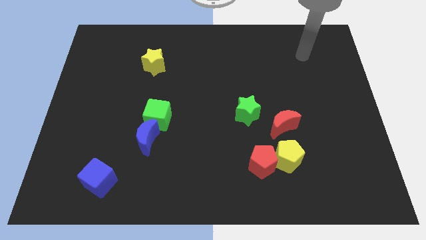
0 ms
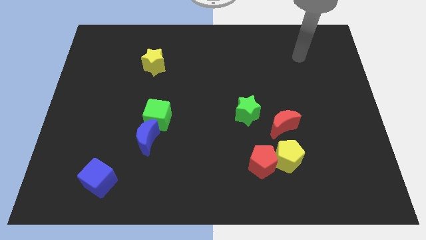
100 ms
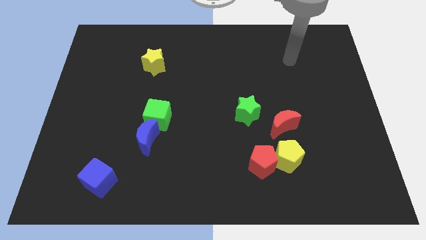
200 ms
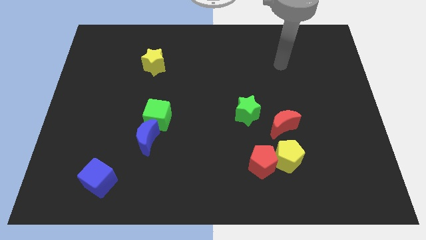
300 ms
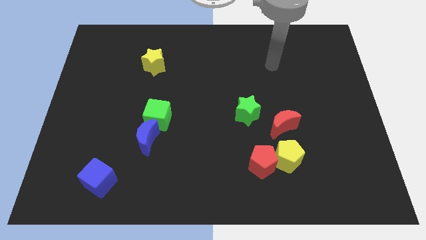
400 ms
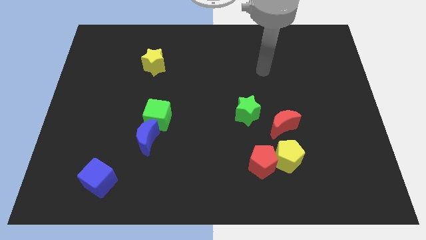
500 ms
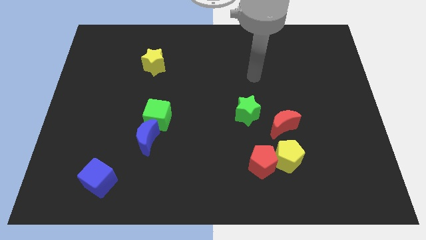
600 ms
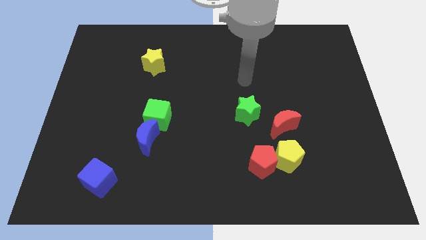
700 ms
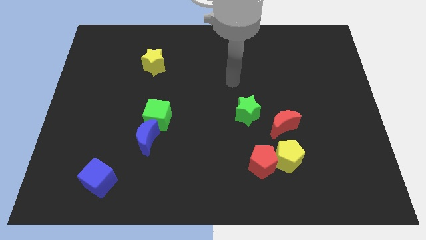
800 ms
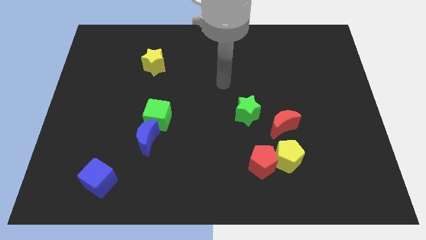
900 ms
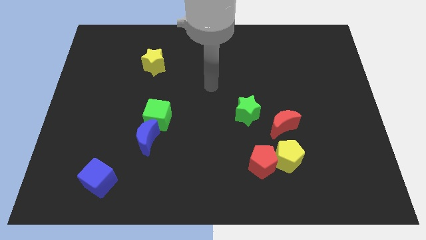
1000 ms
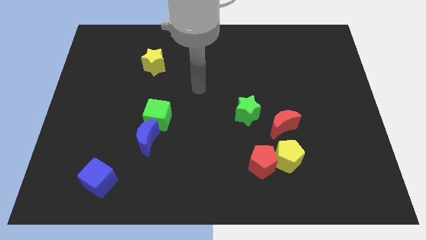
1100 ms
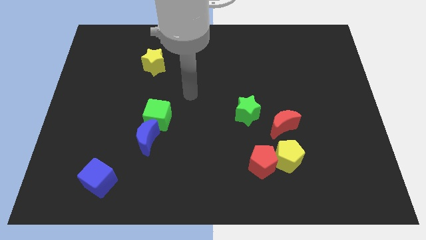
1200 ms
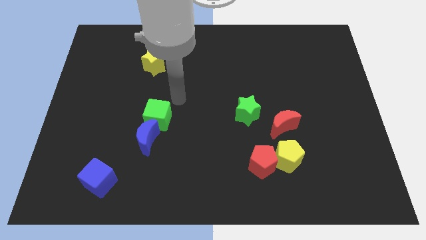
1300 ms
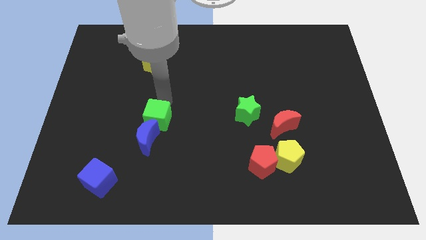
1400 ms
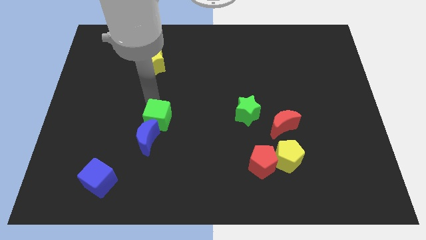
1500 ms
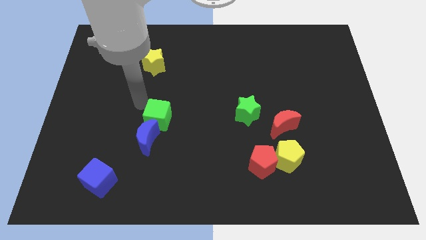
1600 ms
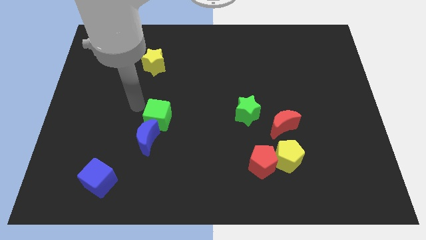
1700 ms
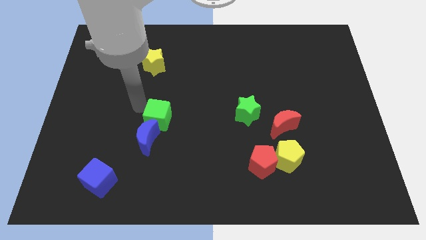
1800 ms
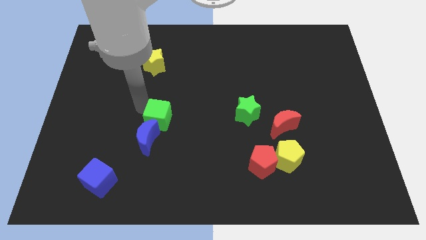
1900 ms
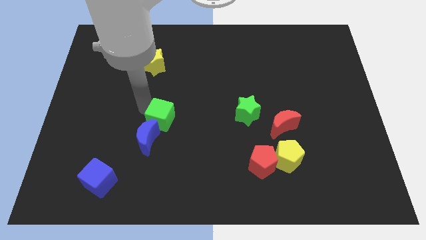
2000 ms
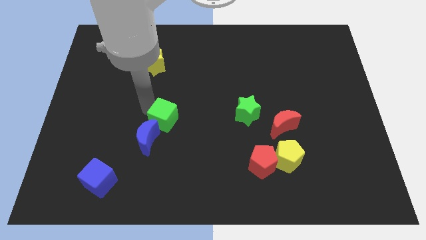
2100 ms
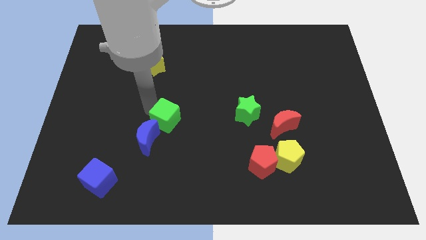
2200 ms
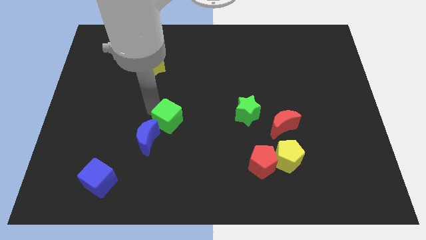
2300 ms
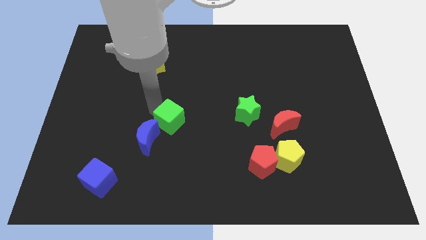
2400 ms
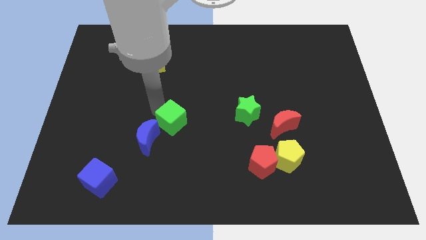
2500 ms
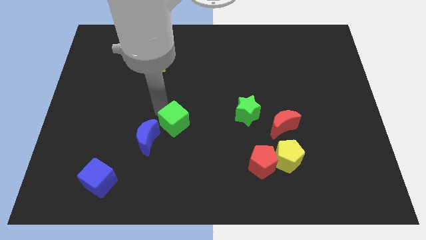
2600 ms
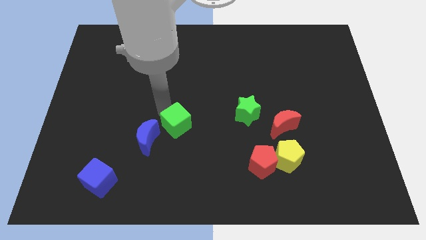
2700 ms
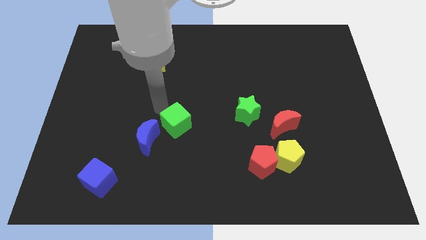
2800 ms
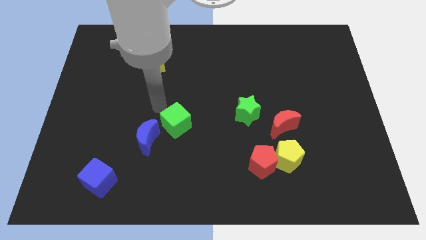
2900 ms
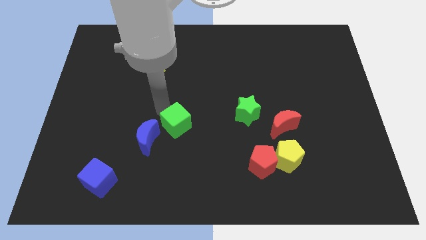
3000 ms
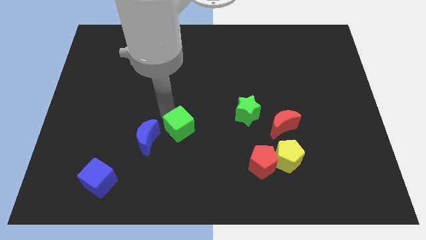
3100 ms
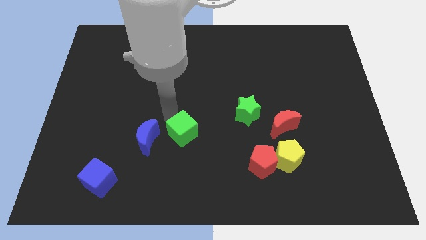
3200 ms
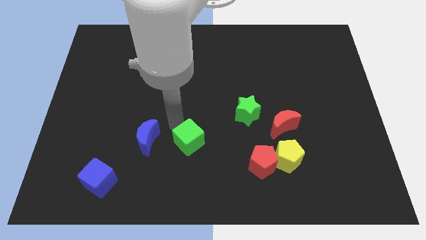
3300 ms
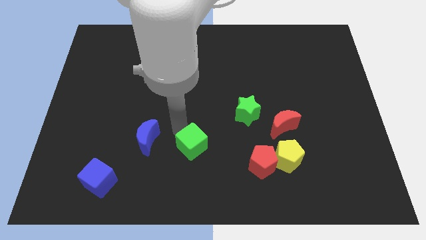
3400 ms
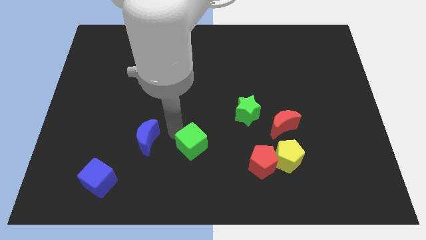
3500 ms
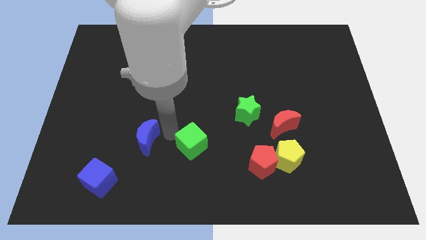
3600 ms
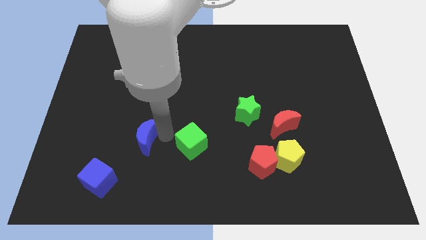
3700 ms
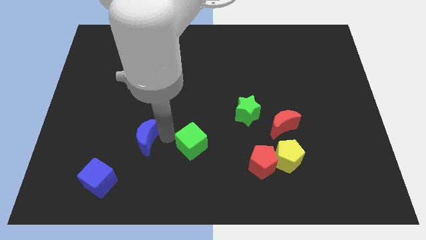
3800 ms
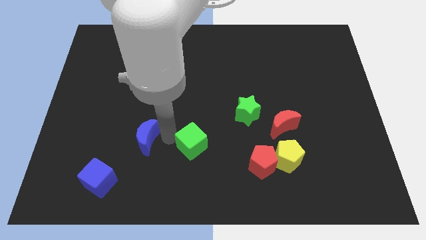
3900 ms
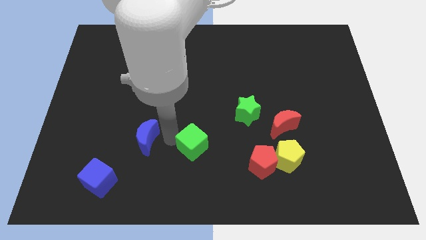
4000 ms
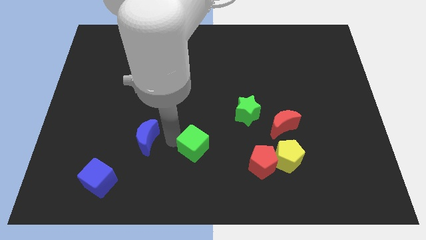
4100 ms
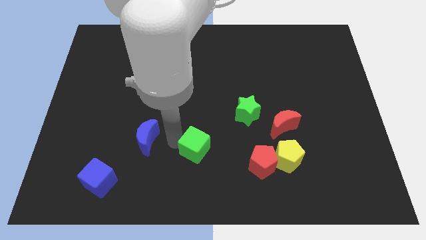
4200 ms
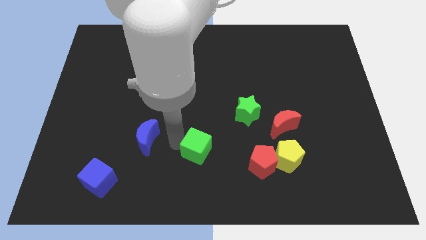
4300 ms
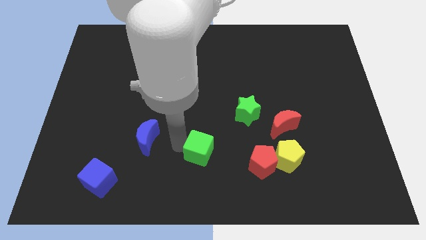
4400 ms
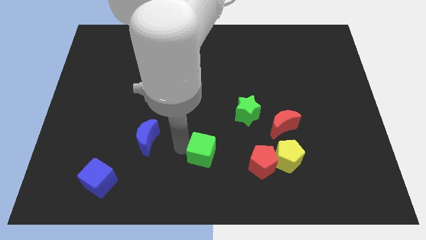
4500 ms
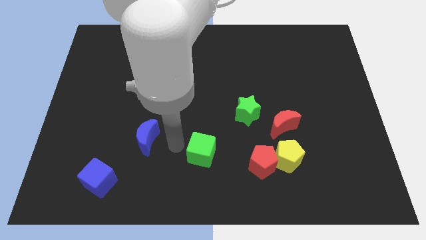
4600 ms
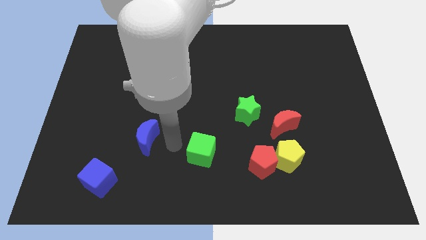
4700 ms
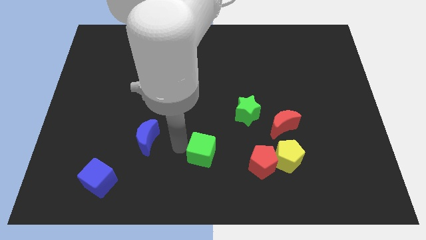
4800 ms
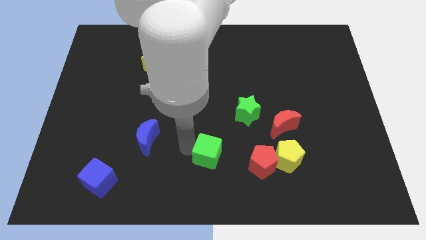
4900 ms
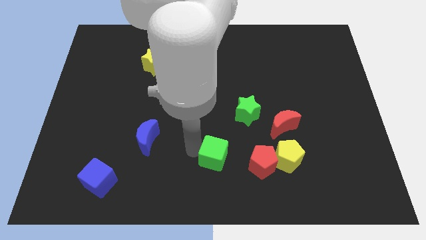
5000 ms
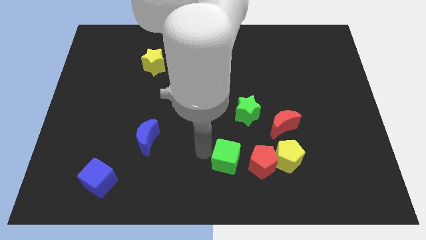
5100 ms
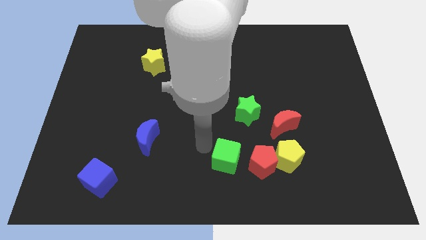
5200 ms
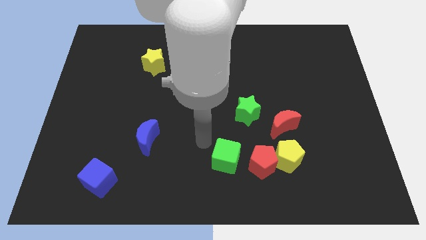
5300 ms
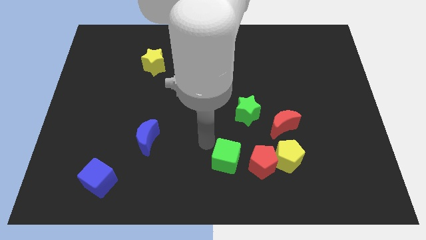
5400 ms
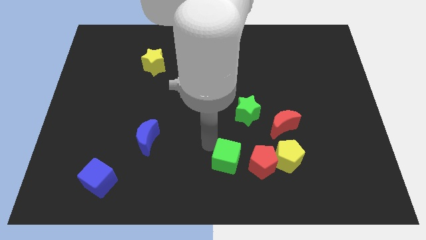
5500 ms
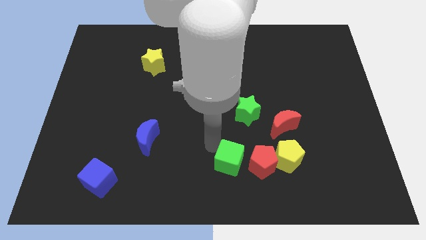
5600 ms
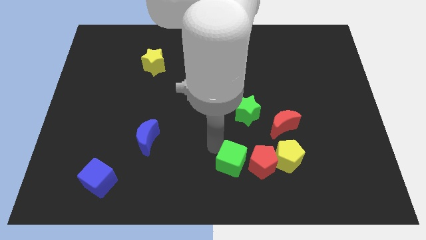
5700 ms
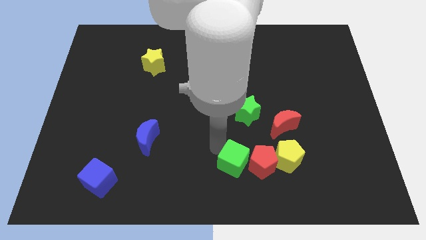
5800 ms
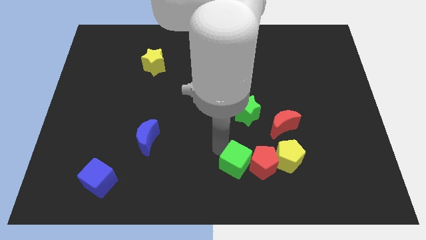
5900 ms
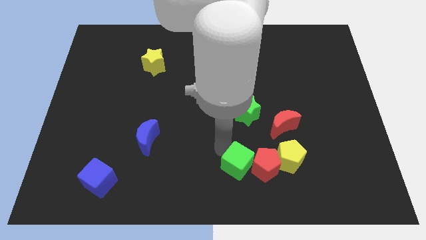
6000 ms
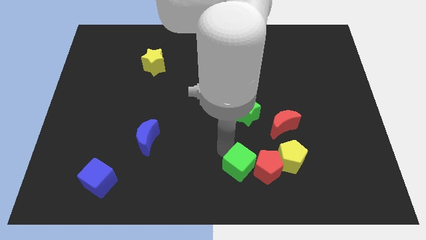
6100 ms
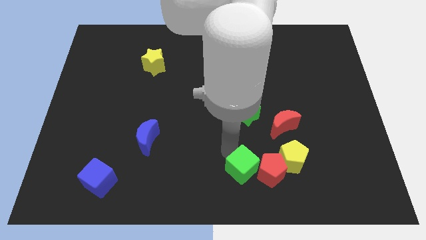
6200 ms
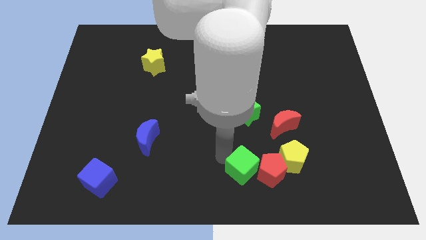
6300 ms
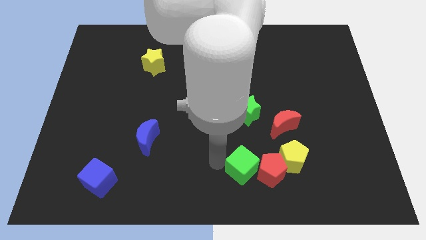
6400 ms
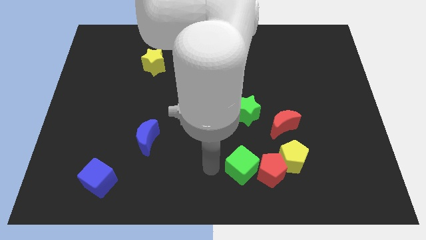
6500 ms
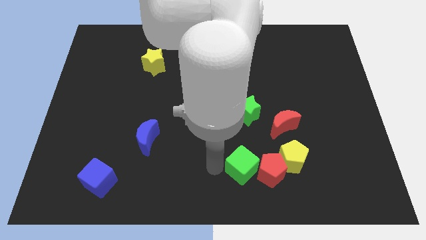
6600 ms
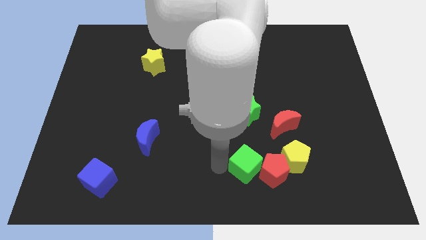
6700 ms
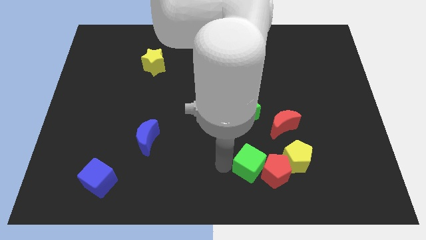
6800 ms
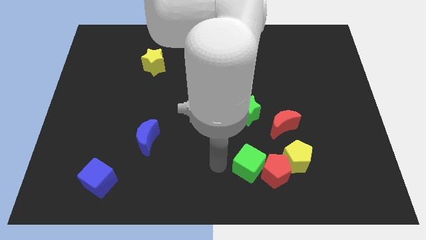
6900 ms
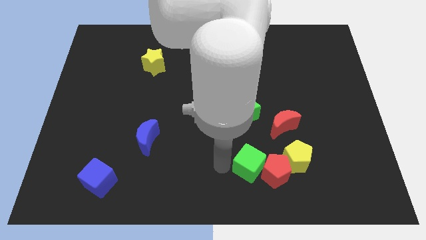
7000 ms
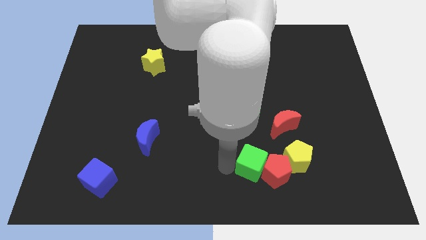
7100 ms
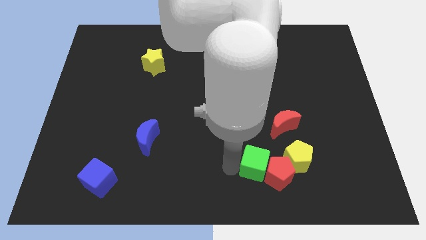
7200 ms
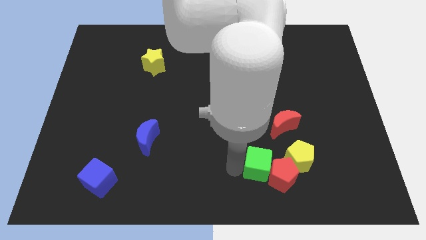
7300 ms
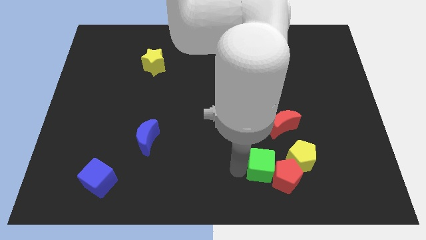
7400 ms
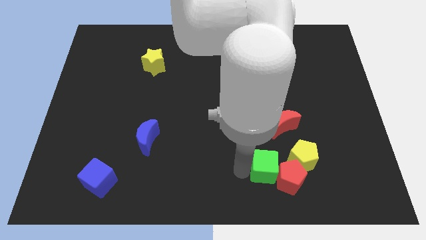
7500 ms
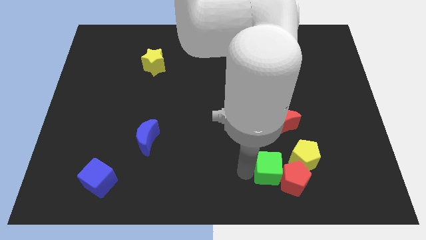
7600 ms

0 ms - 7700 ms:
put the green cube to the bottom side of the red moon

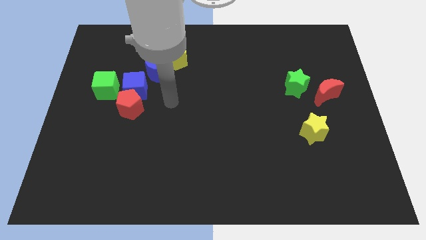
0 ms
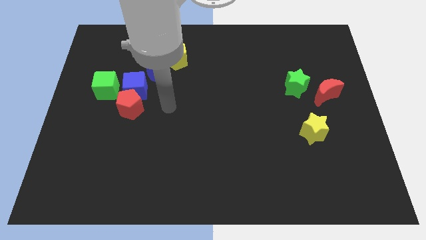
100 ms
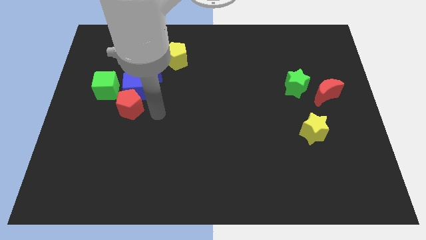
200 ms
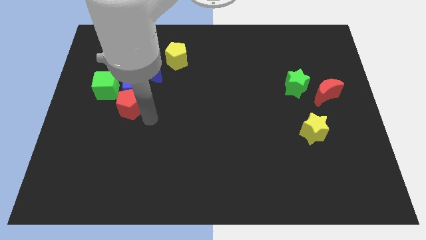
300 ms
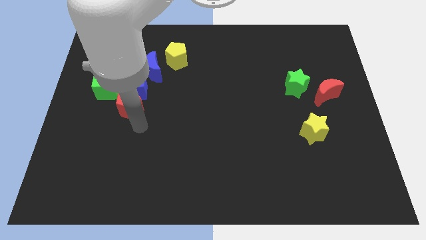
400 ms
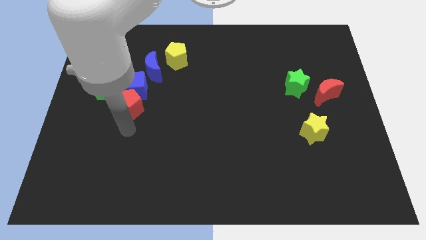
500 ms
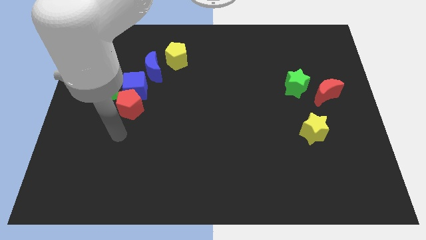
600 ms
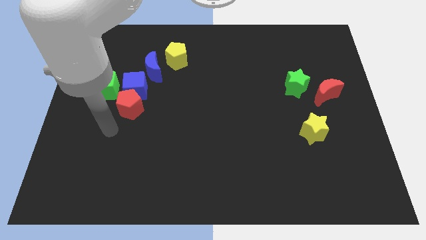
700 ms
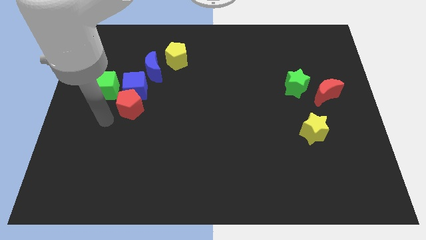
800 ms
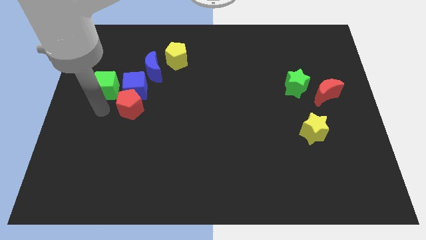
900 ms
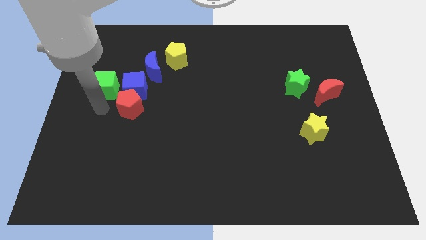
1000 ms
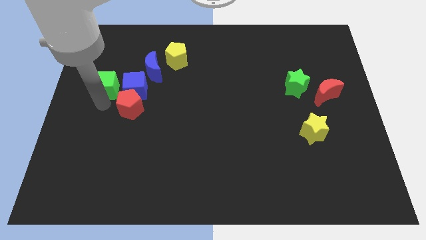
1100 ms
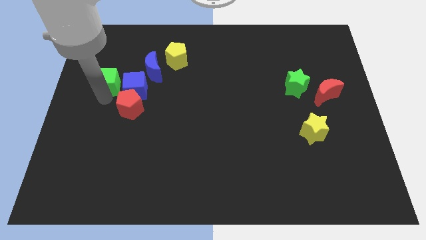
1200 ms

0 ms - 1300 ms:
move the green cube left of the blue moon
